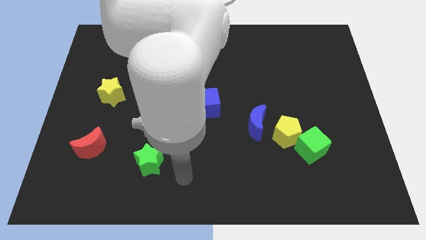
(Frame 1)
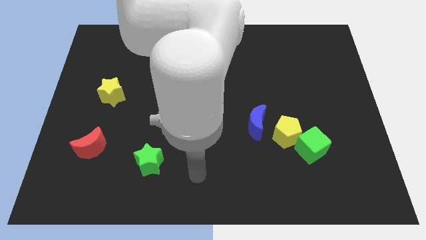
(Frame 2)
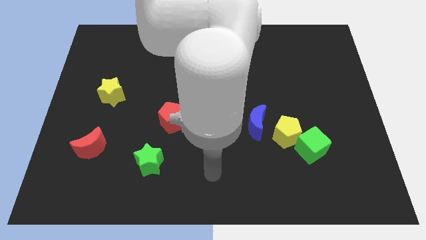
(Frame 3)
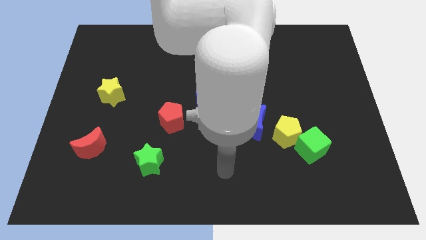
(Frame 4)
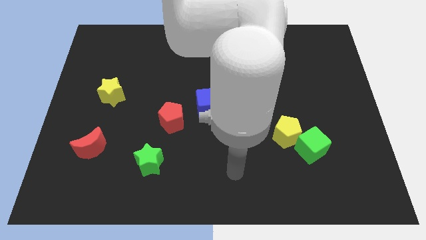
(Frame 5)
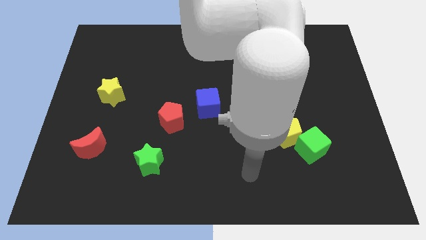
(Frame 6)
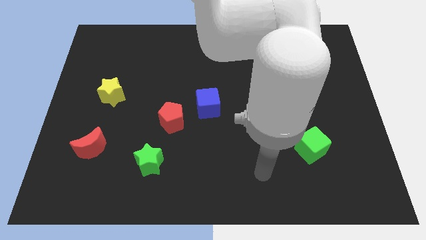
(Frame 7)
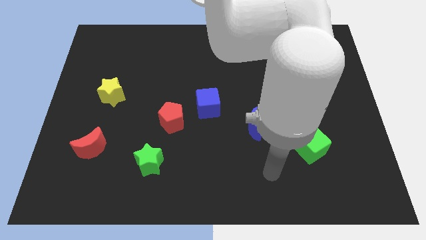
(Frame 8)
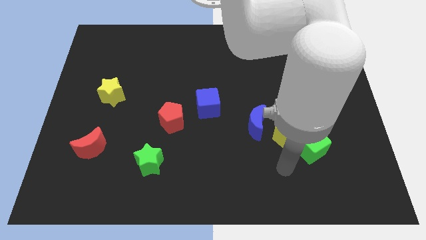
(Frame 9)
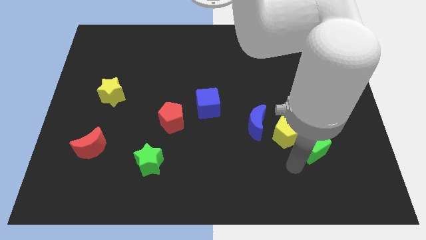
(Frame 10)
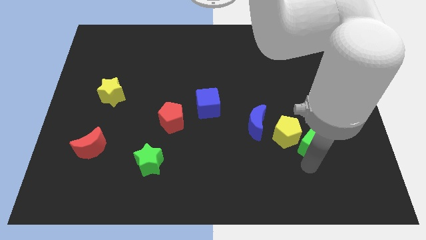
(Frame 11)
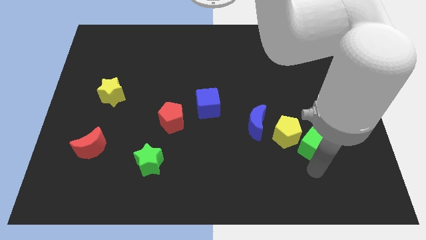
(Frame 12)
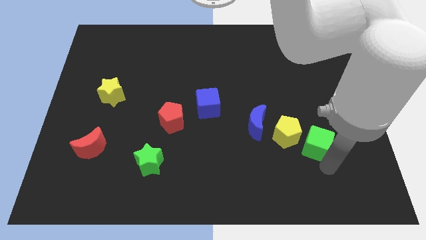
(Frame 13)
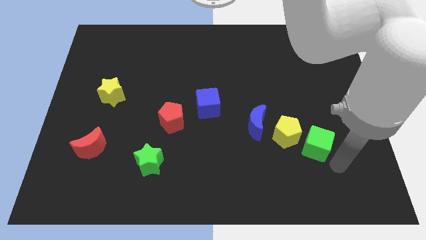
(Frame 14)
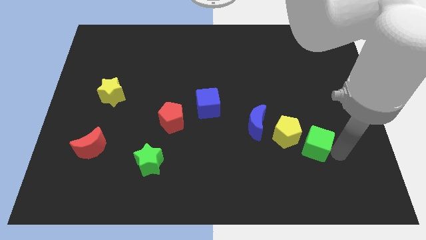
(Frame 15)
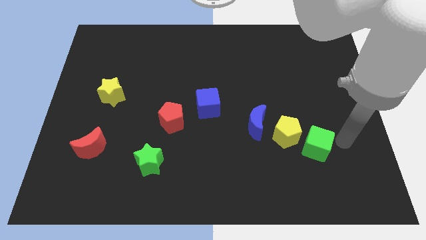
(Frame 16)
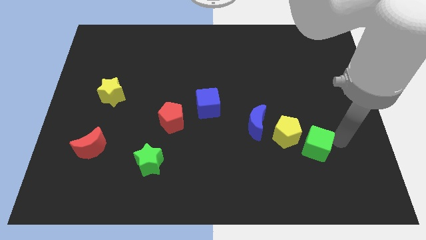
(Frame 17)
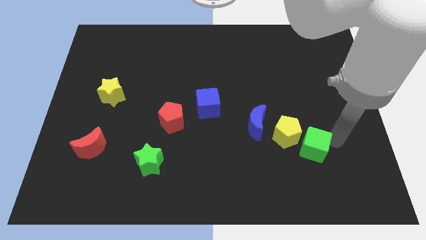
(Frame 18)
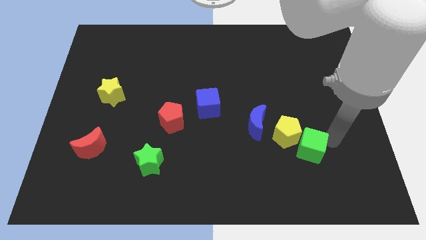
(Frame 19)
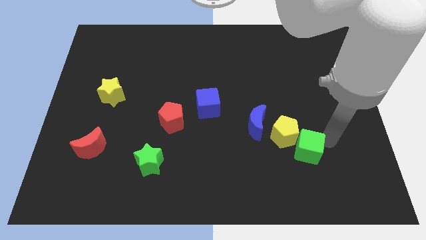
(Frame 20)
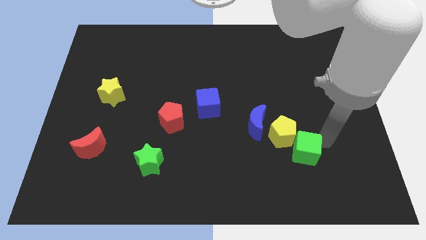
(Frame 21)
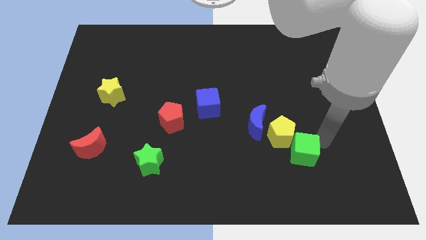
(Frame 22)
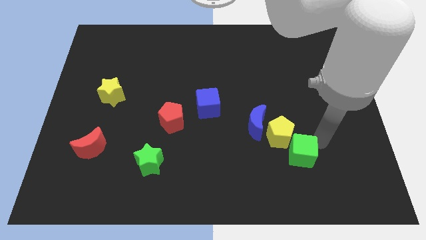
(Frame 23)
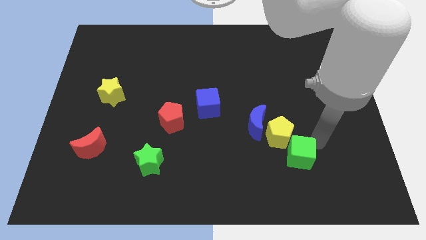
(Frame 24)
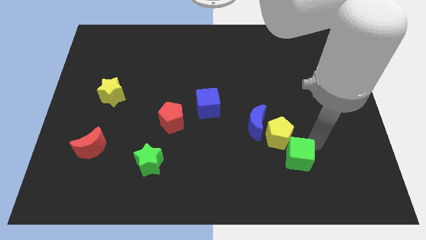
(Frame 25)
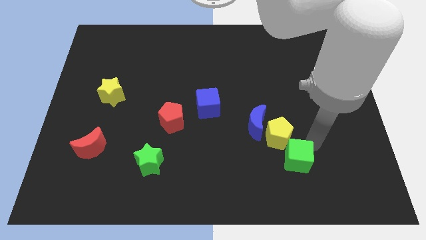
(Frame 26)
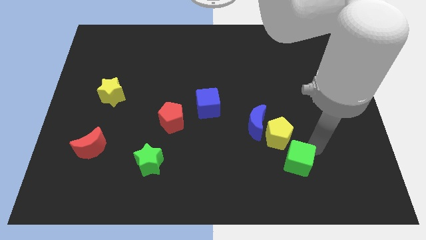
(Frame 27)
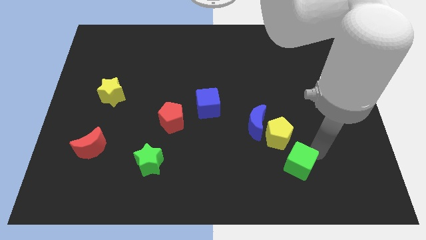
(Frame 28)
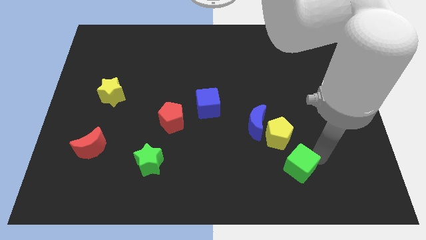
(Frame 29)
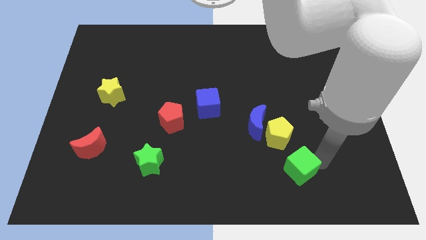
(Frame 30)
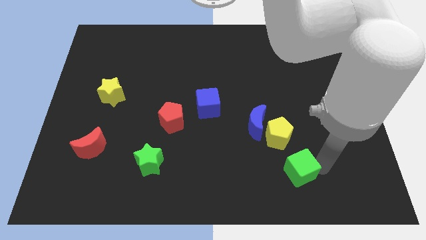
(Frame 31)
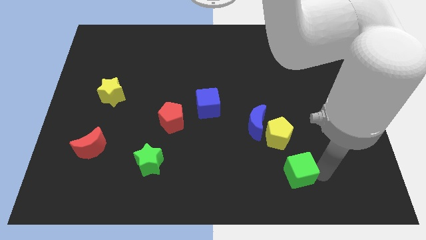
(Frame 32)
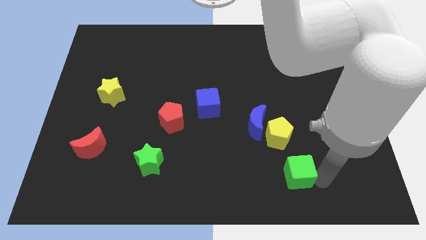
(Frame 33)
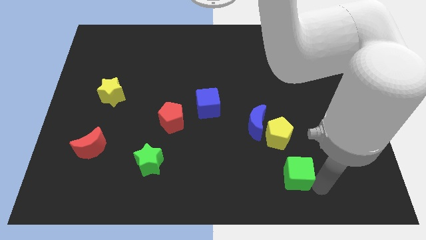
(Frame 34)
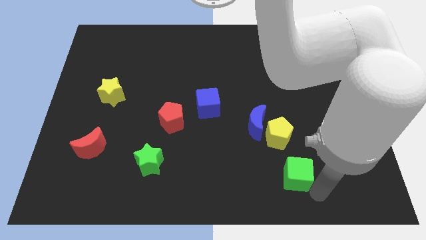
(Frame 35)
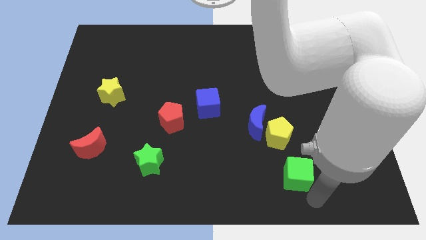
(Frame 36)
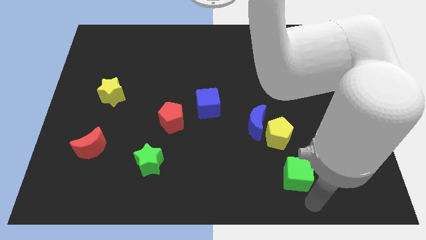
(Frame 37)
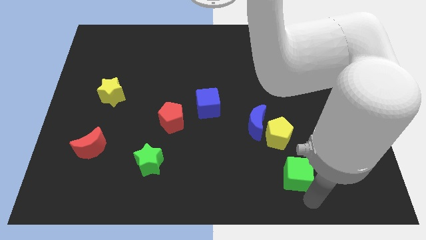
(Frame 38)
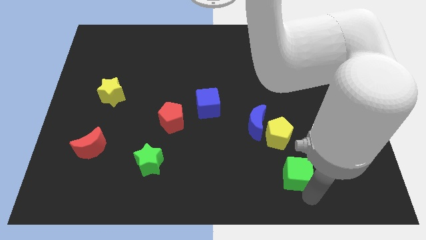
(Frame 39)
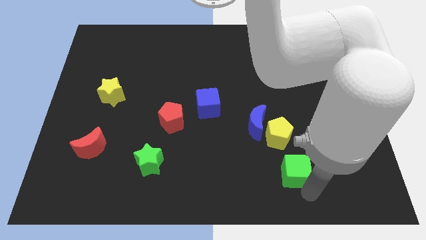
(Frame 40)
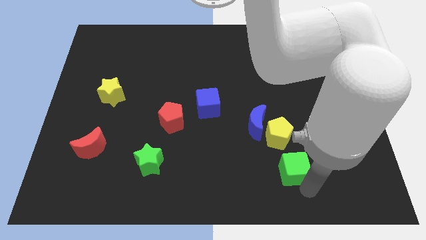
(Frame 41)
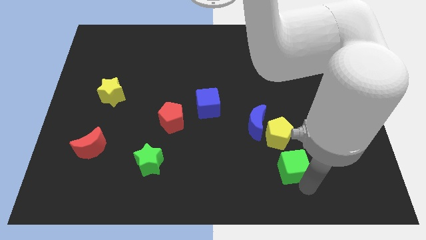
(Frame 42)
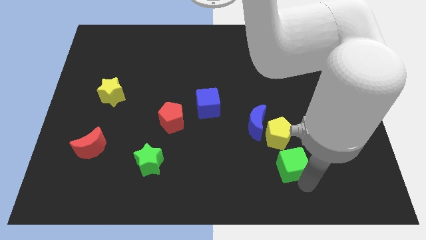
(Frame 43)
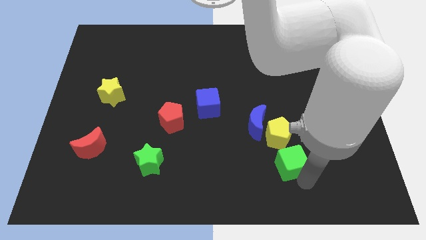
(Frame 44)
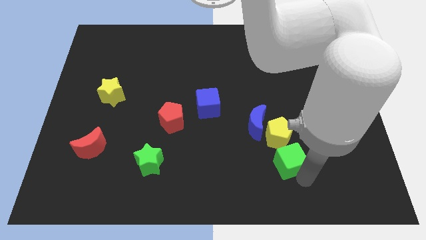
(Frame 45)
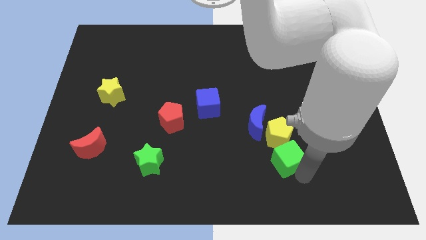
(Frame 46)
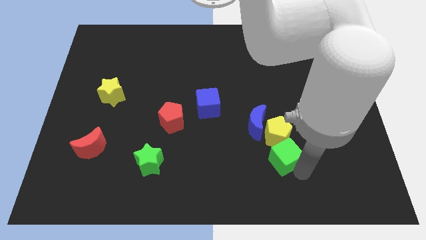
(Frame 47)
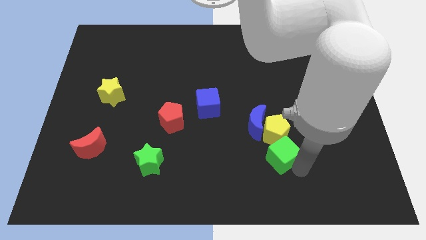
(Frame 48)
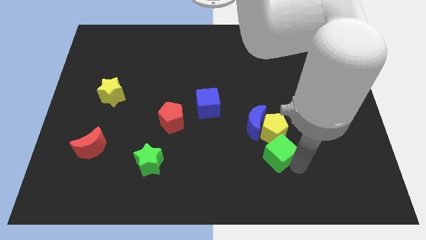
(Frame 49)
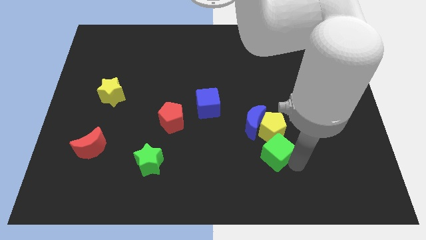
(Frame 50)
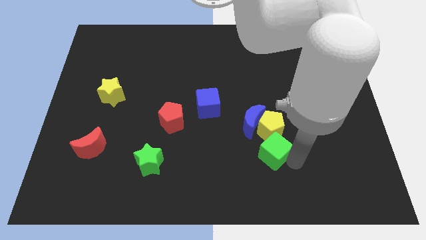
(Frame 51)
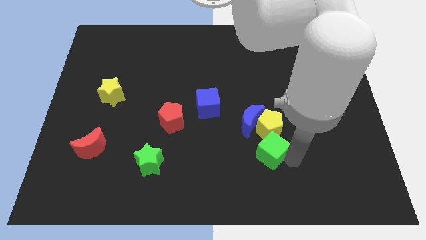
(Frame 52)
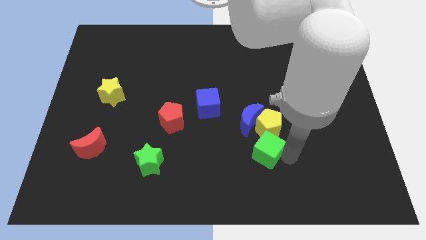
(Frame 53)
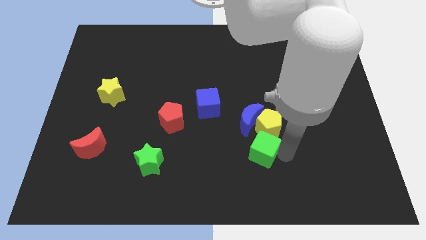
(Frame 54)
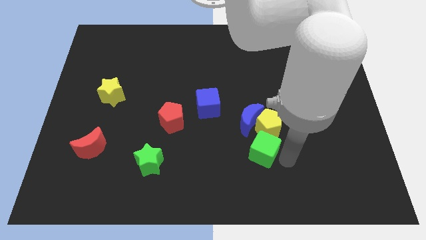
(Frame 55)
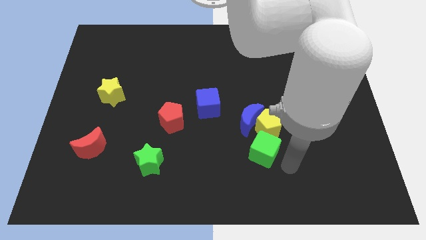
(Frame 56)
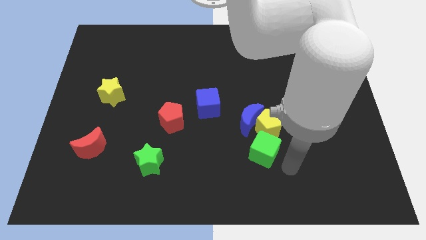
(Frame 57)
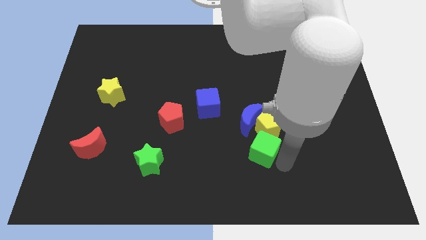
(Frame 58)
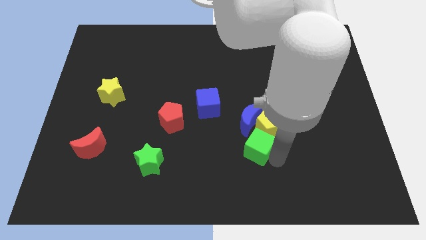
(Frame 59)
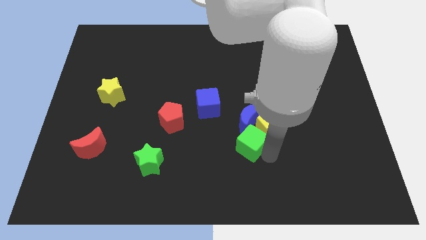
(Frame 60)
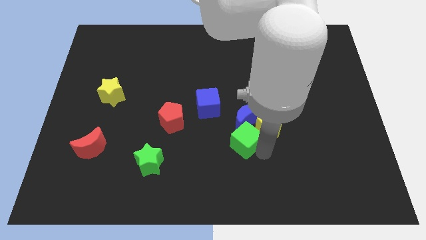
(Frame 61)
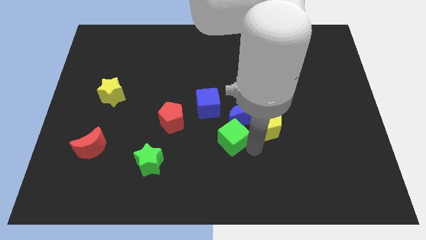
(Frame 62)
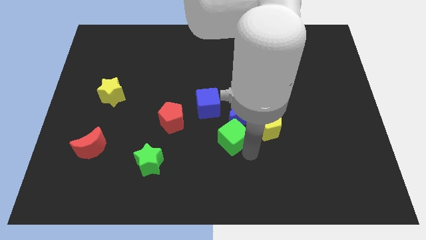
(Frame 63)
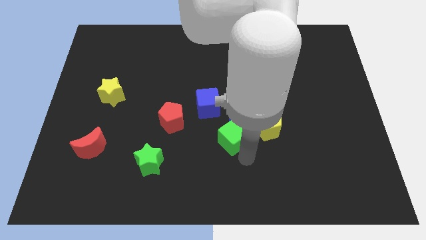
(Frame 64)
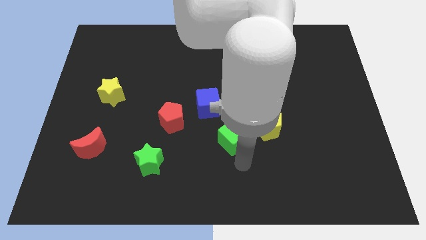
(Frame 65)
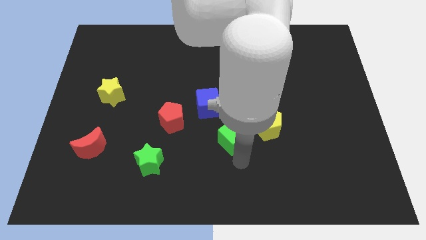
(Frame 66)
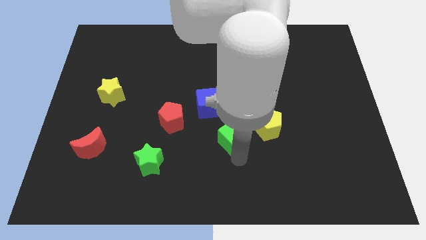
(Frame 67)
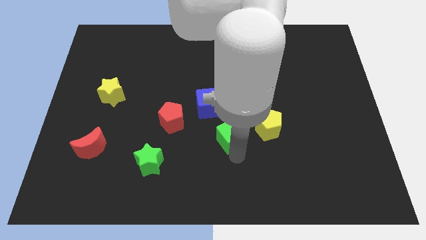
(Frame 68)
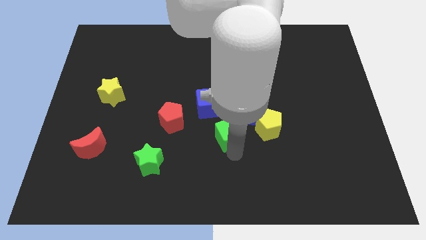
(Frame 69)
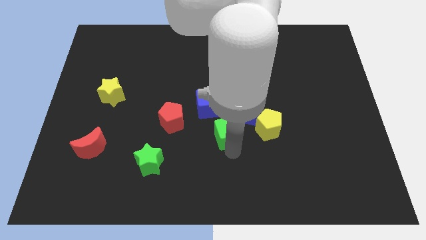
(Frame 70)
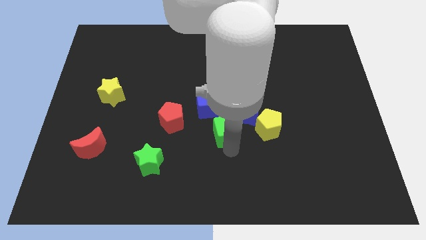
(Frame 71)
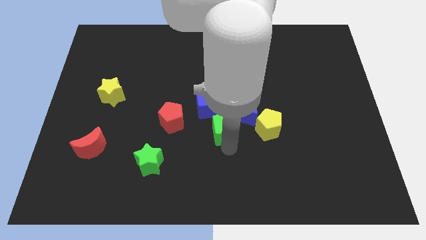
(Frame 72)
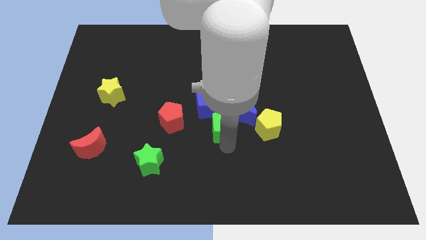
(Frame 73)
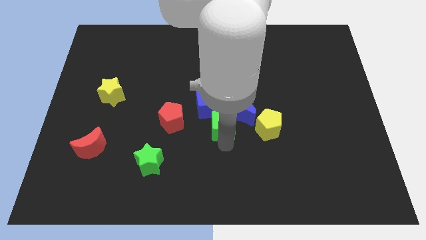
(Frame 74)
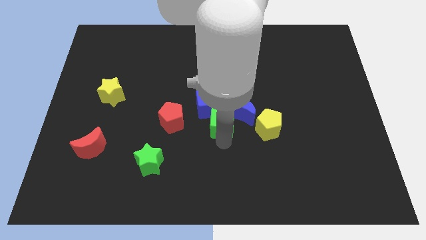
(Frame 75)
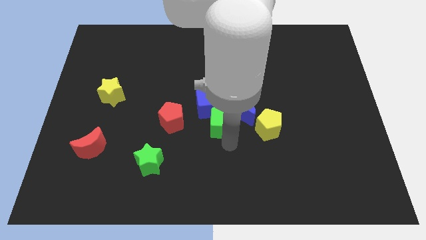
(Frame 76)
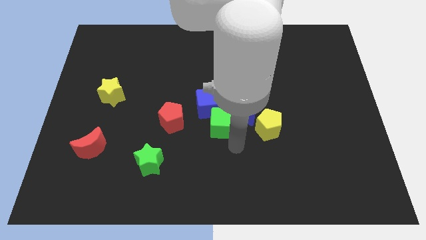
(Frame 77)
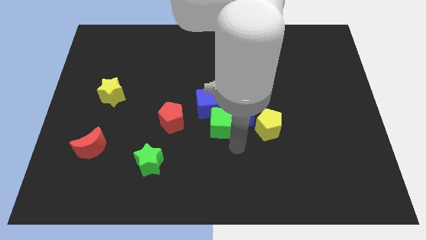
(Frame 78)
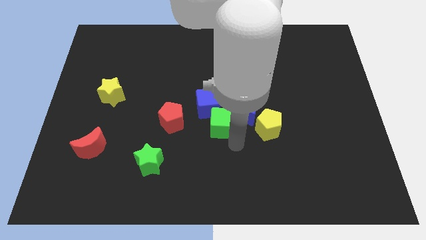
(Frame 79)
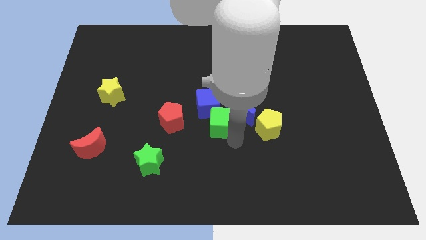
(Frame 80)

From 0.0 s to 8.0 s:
move the green cube to the blue cube
